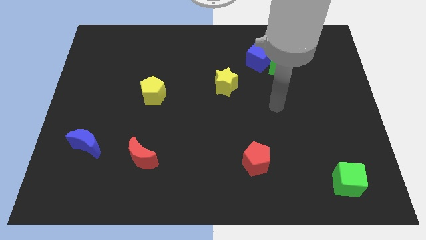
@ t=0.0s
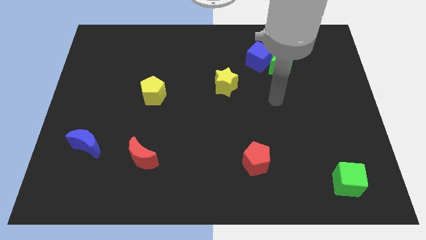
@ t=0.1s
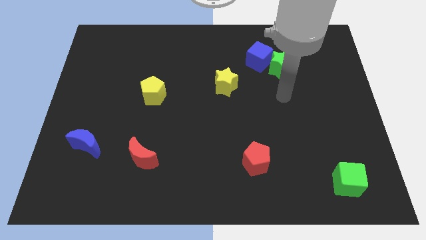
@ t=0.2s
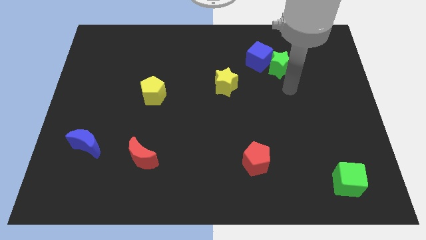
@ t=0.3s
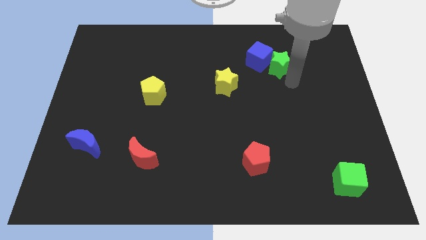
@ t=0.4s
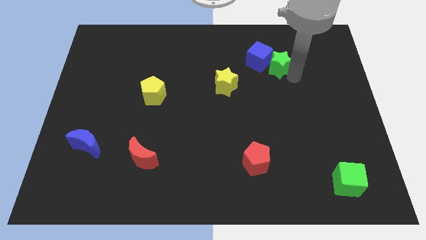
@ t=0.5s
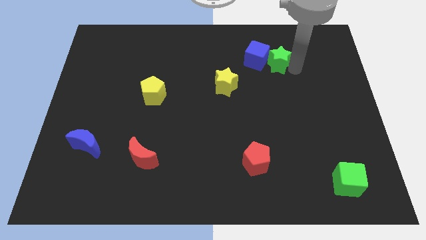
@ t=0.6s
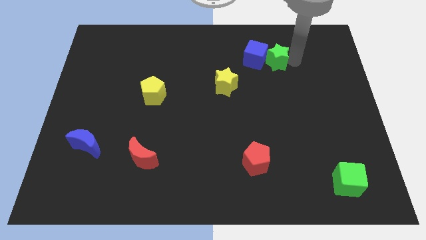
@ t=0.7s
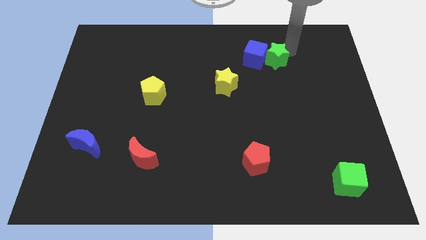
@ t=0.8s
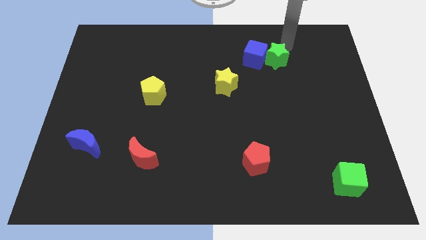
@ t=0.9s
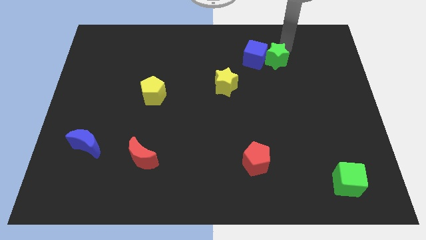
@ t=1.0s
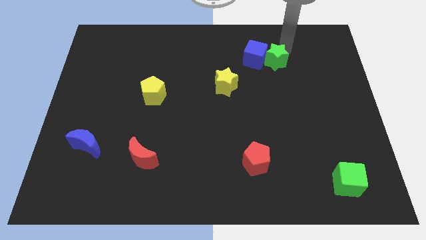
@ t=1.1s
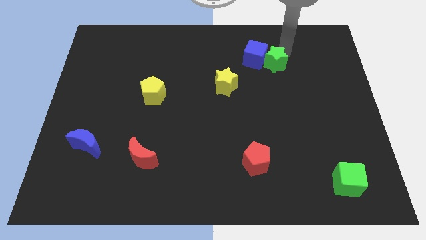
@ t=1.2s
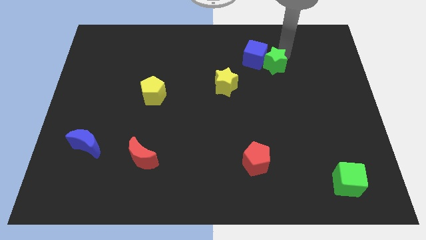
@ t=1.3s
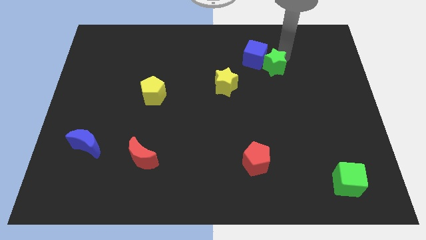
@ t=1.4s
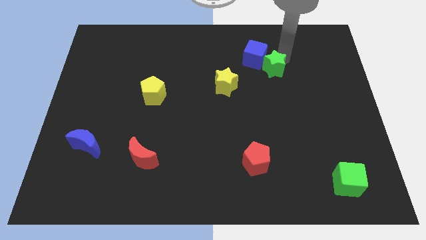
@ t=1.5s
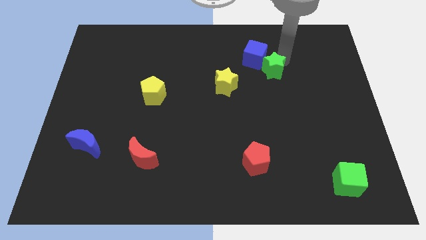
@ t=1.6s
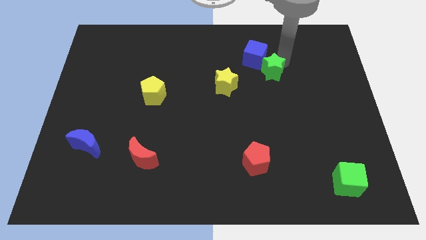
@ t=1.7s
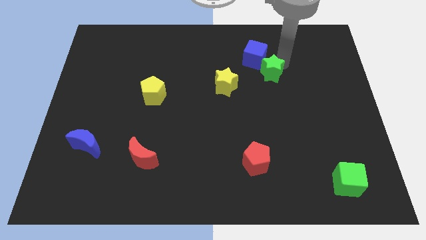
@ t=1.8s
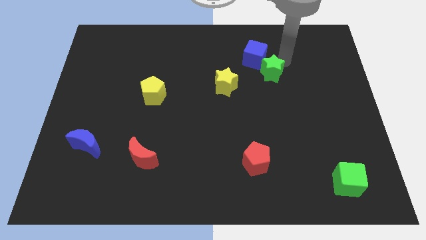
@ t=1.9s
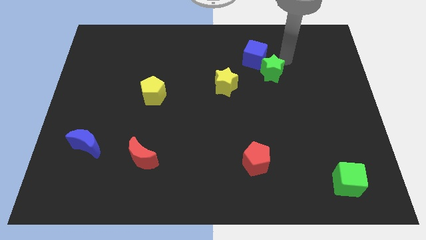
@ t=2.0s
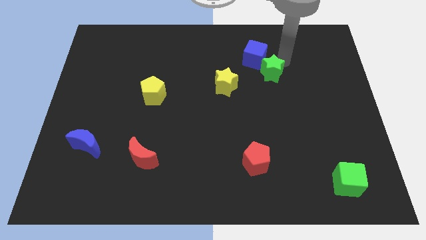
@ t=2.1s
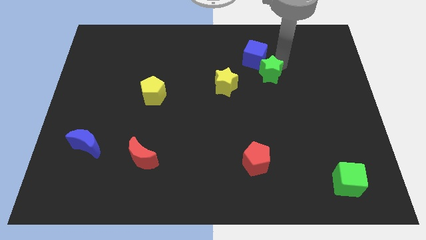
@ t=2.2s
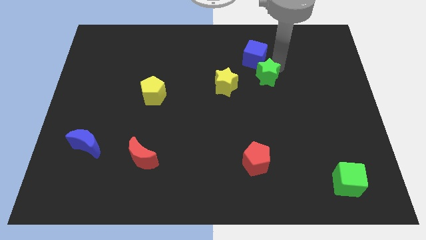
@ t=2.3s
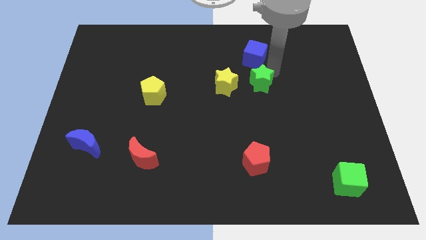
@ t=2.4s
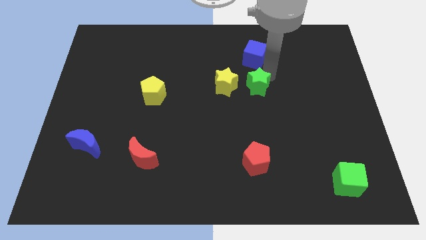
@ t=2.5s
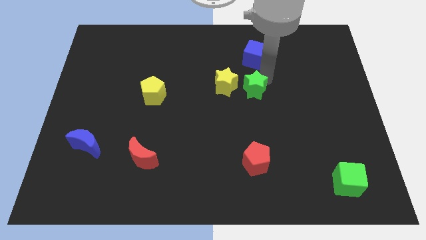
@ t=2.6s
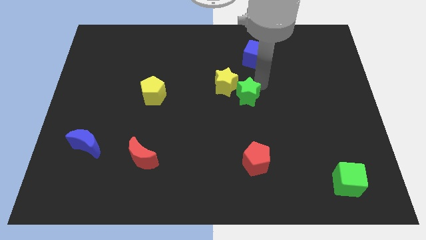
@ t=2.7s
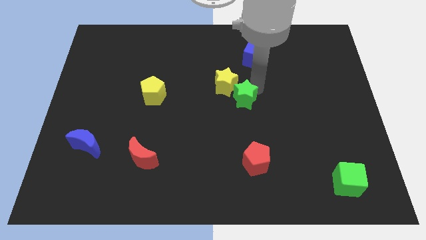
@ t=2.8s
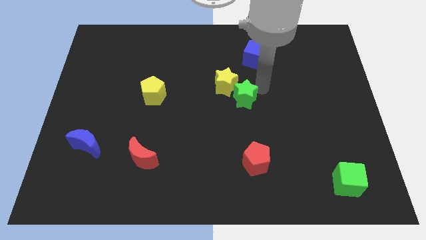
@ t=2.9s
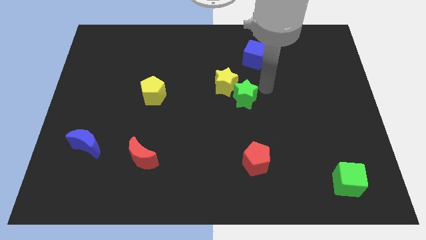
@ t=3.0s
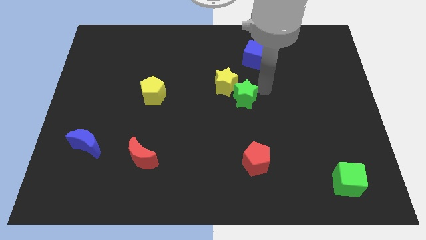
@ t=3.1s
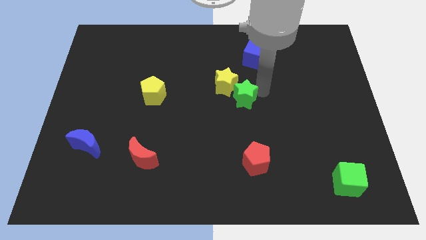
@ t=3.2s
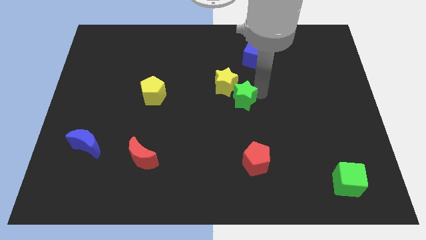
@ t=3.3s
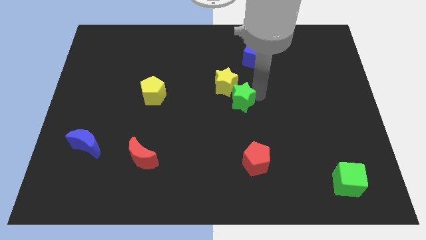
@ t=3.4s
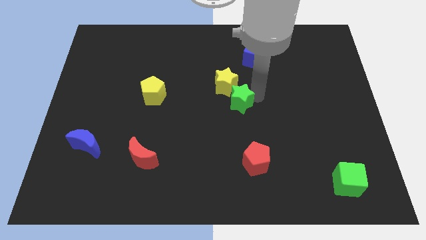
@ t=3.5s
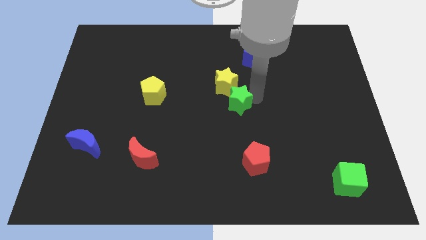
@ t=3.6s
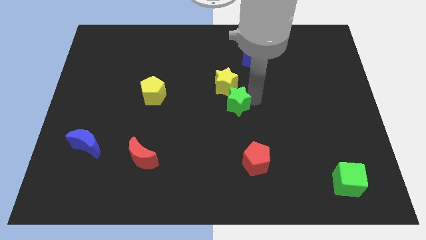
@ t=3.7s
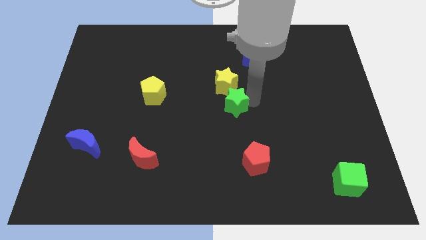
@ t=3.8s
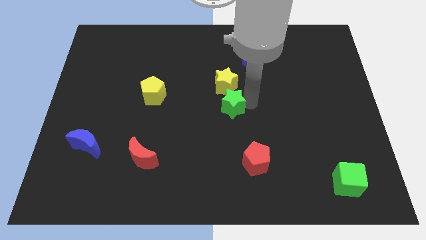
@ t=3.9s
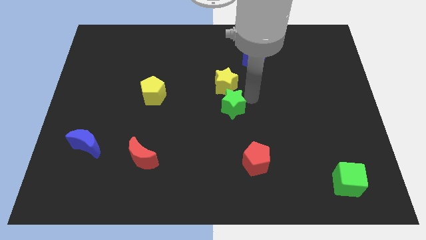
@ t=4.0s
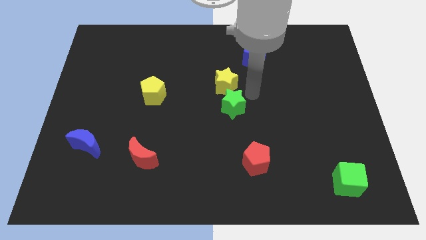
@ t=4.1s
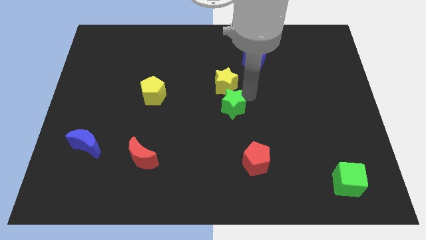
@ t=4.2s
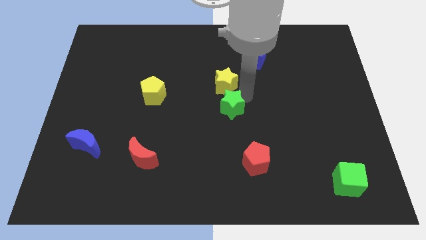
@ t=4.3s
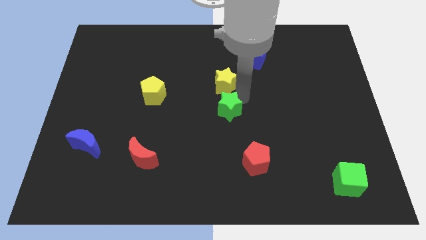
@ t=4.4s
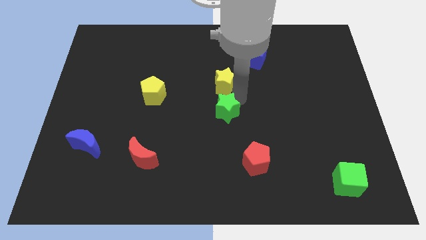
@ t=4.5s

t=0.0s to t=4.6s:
move the green star down and left

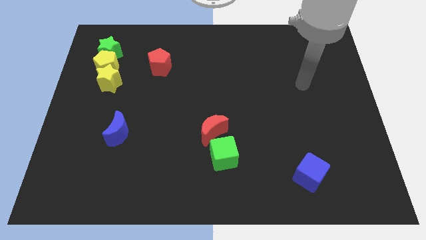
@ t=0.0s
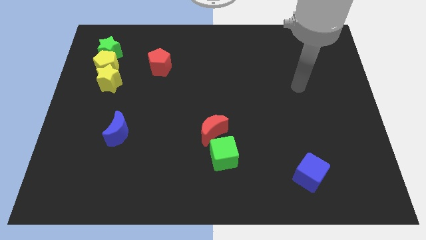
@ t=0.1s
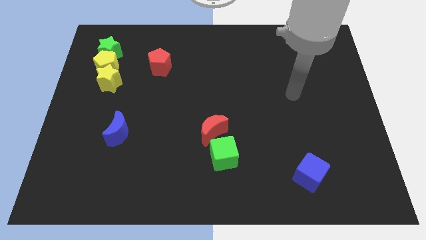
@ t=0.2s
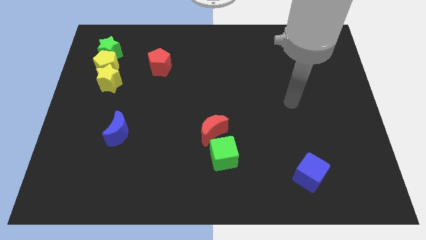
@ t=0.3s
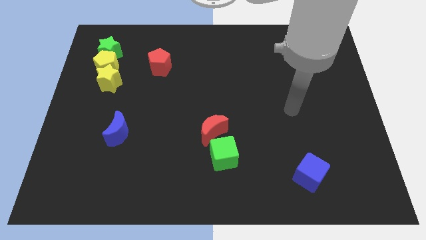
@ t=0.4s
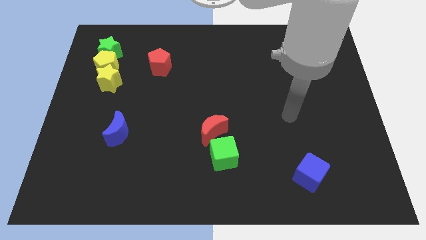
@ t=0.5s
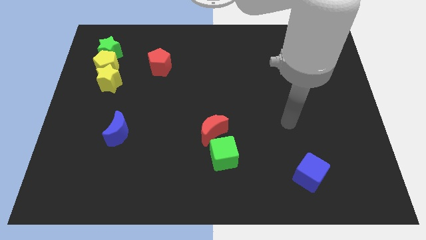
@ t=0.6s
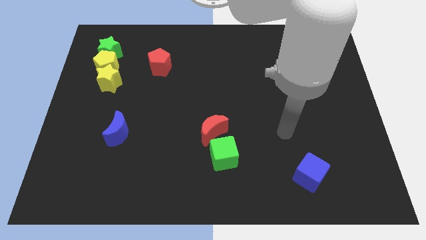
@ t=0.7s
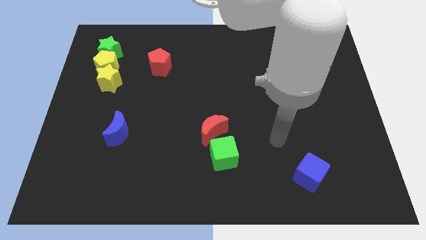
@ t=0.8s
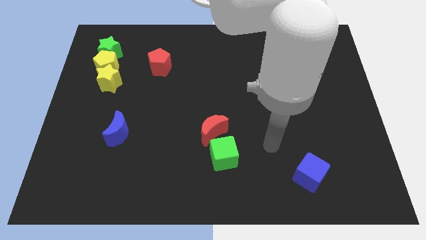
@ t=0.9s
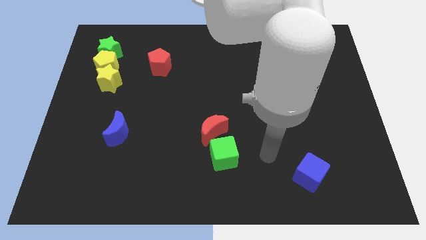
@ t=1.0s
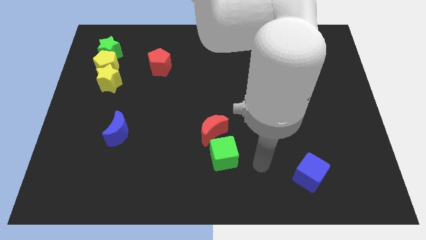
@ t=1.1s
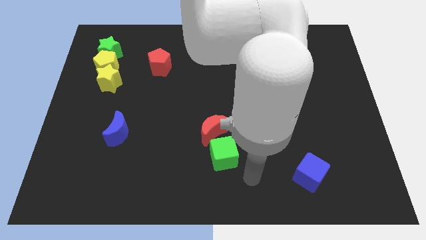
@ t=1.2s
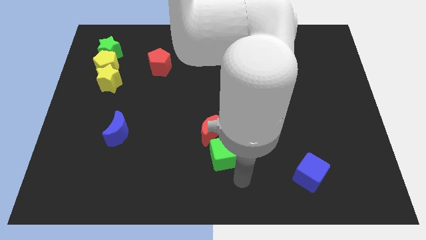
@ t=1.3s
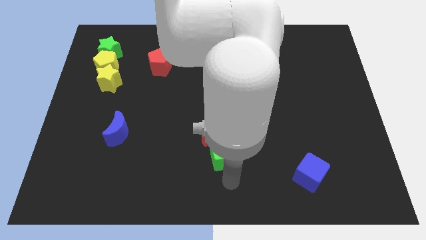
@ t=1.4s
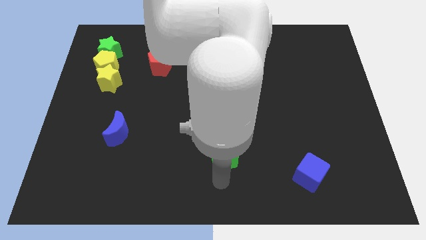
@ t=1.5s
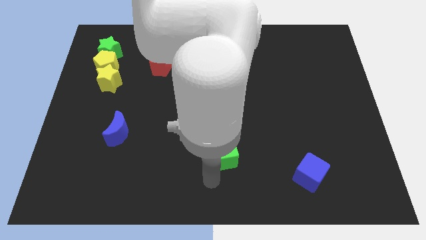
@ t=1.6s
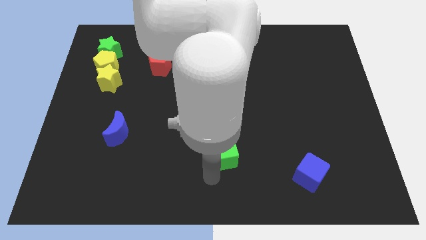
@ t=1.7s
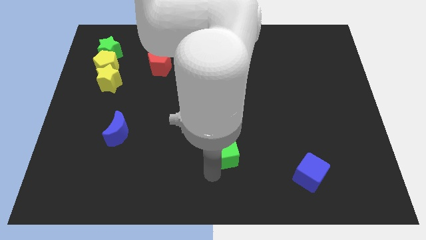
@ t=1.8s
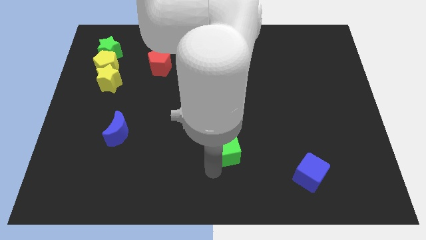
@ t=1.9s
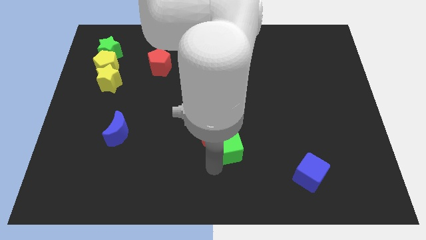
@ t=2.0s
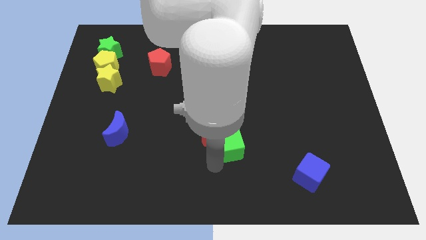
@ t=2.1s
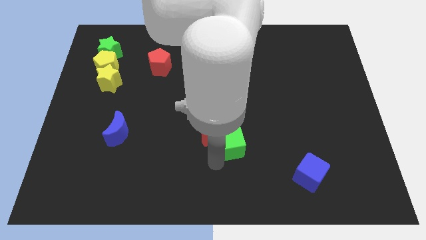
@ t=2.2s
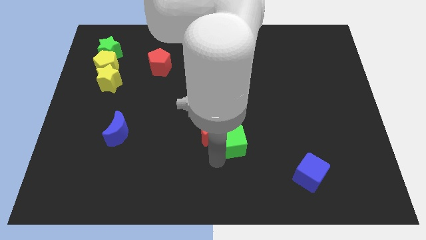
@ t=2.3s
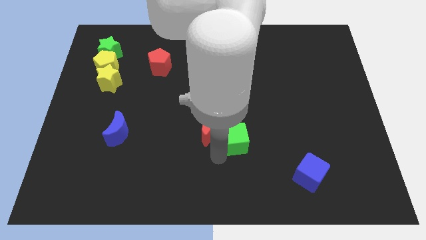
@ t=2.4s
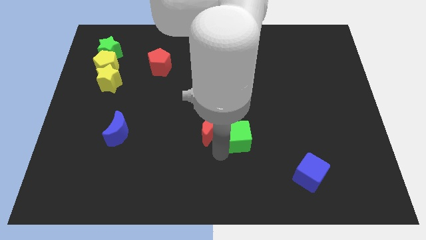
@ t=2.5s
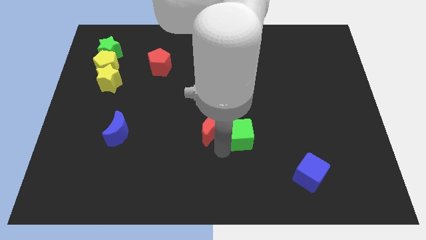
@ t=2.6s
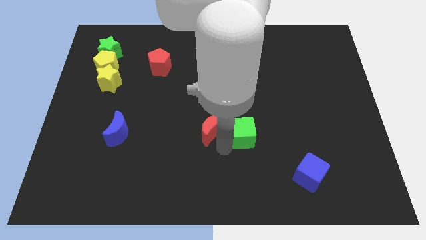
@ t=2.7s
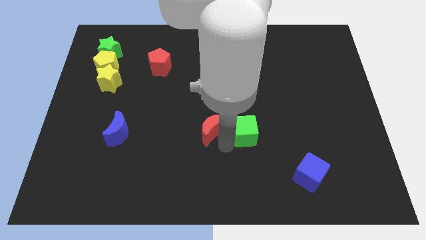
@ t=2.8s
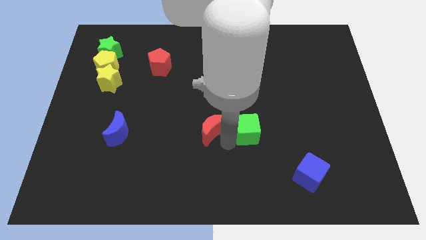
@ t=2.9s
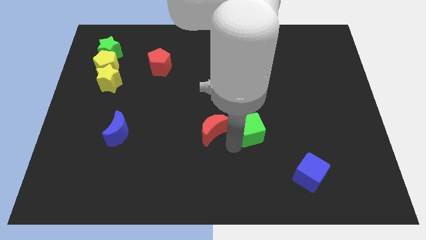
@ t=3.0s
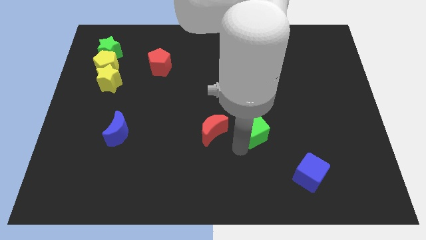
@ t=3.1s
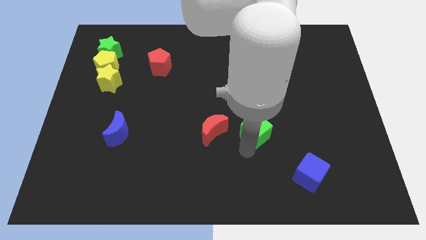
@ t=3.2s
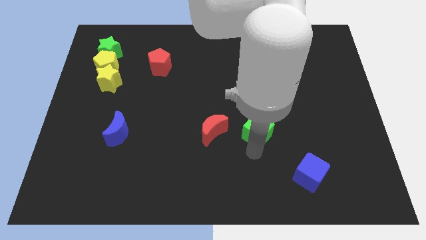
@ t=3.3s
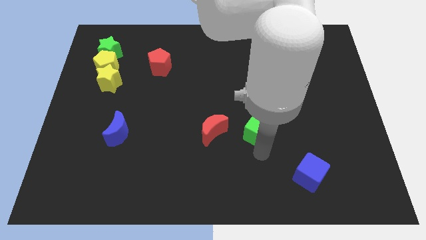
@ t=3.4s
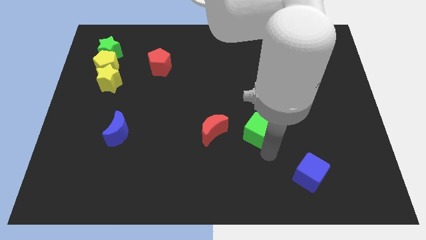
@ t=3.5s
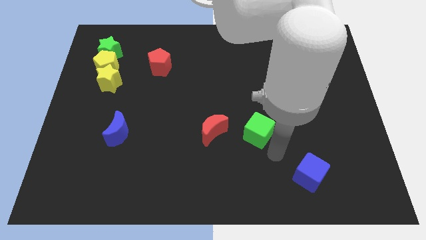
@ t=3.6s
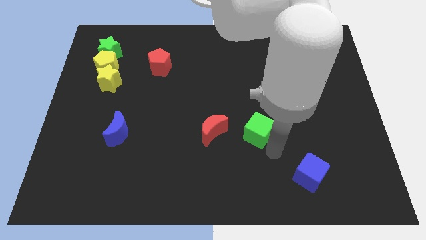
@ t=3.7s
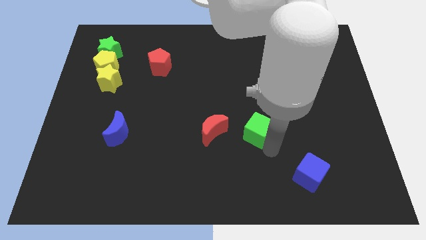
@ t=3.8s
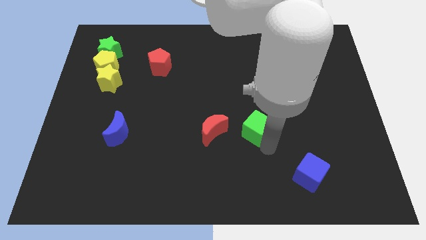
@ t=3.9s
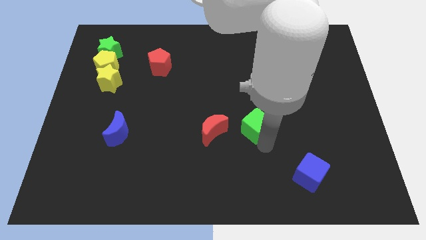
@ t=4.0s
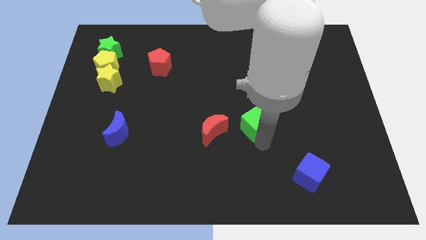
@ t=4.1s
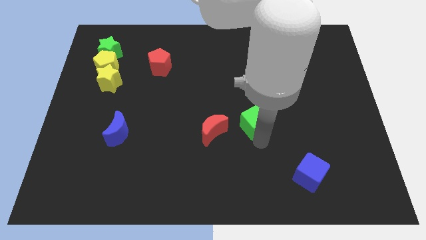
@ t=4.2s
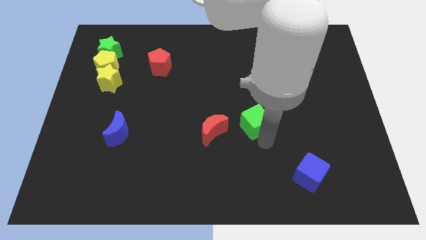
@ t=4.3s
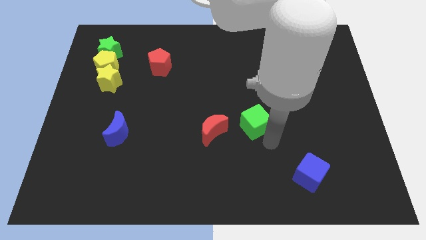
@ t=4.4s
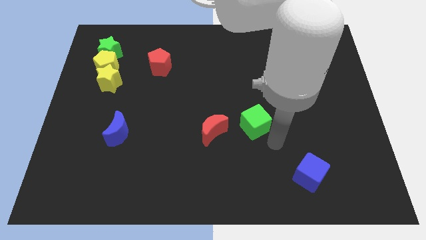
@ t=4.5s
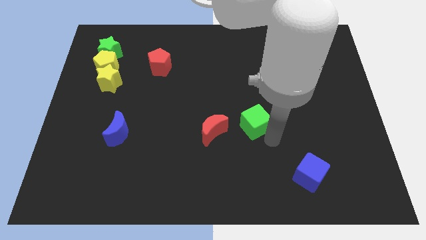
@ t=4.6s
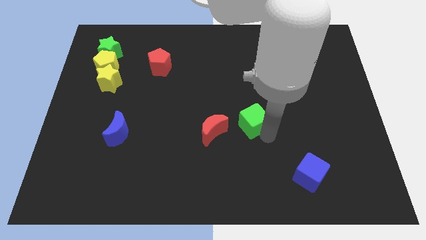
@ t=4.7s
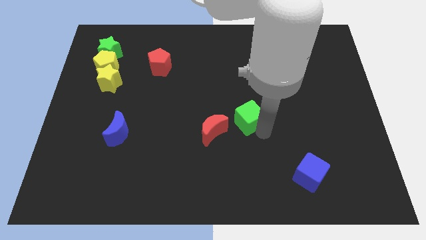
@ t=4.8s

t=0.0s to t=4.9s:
slightly move the green cube upwards
